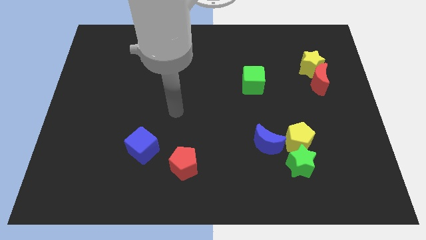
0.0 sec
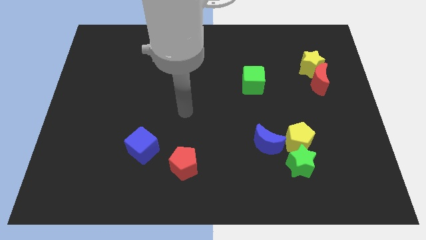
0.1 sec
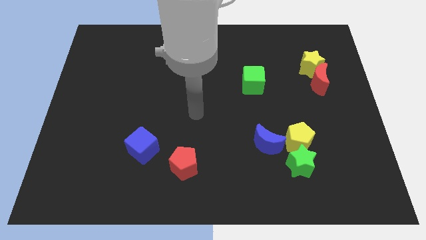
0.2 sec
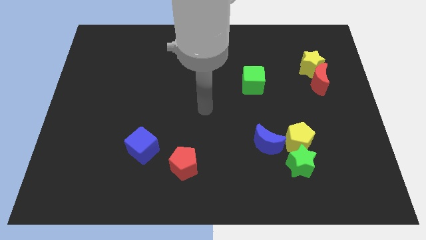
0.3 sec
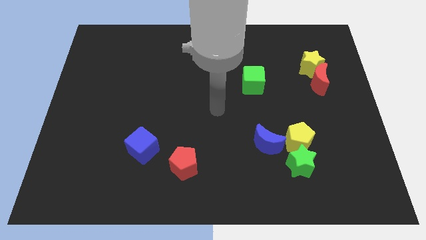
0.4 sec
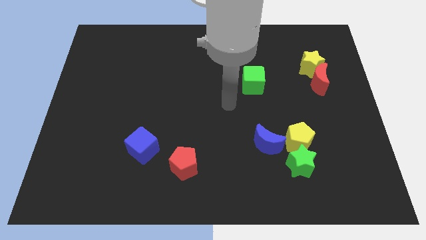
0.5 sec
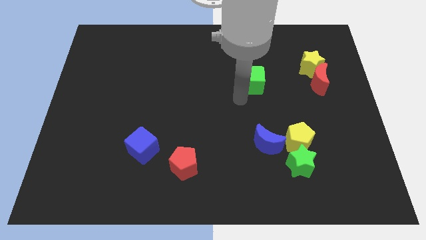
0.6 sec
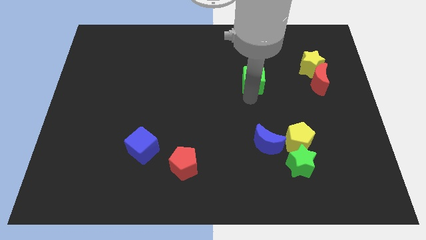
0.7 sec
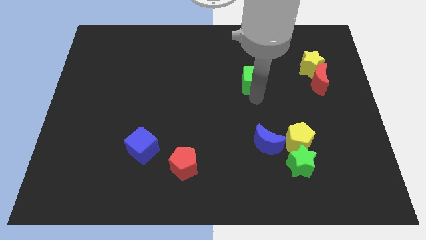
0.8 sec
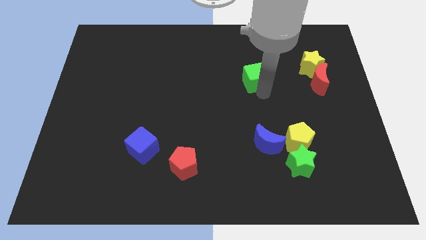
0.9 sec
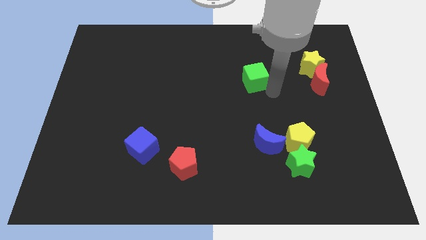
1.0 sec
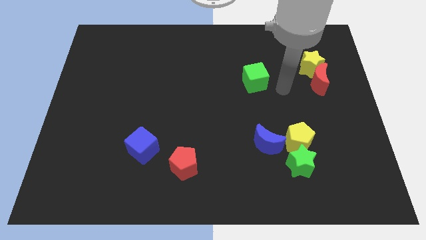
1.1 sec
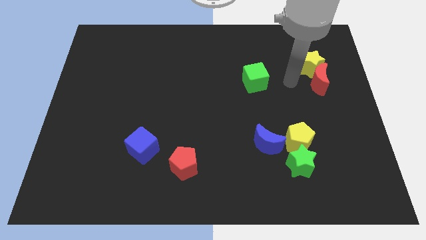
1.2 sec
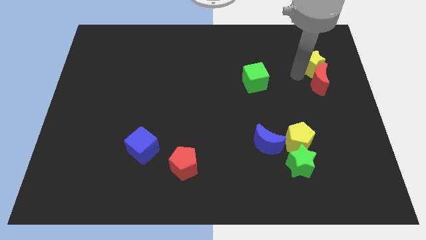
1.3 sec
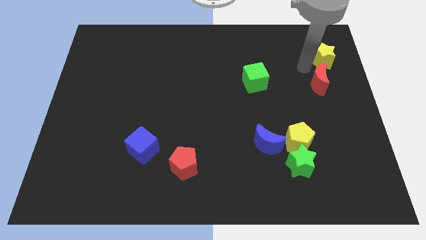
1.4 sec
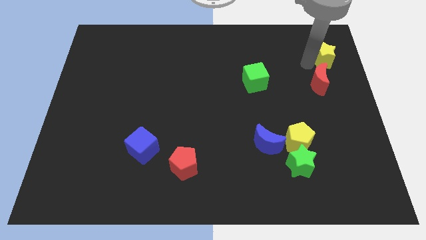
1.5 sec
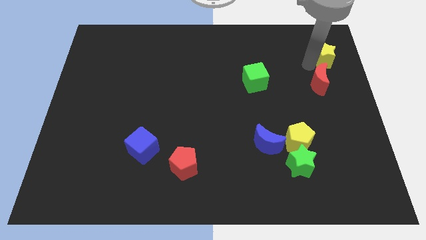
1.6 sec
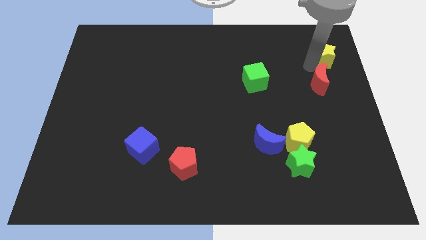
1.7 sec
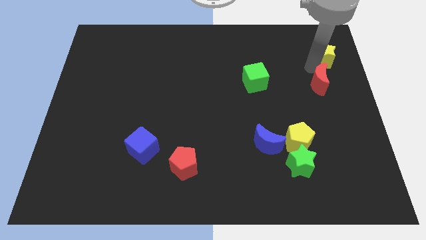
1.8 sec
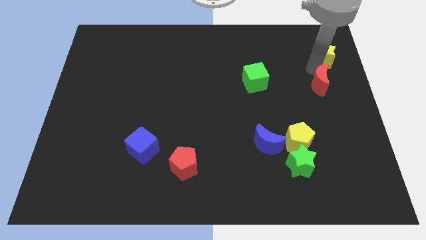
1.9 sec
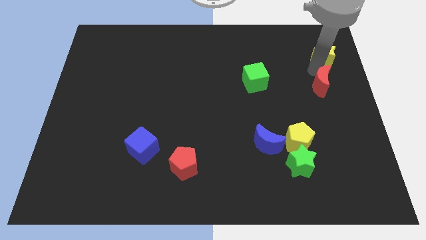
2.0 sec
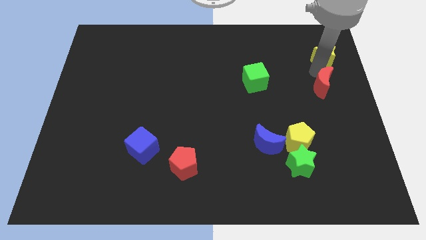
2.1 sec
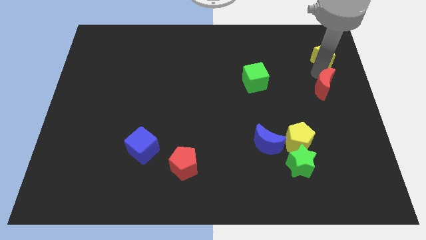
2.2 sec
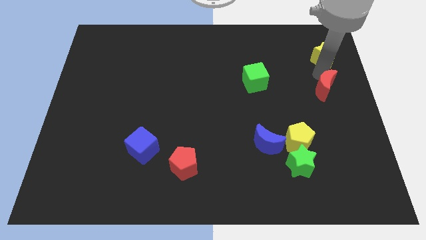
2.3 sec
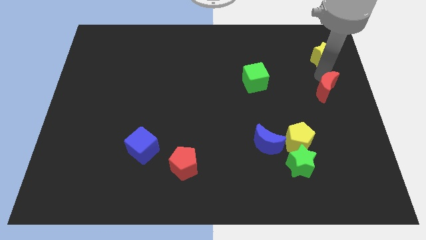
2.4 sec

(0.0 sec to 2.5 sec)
move the red moon away from the yellow star

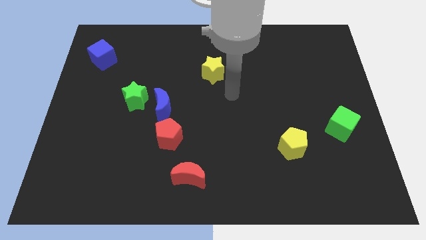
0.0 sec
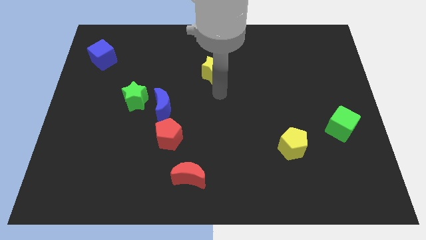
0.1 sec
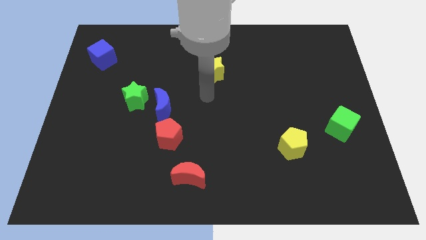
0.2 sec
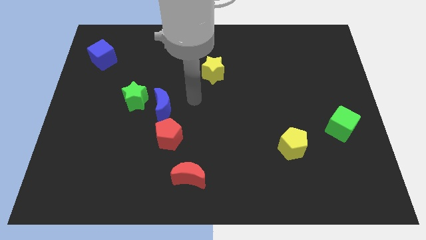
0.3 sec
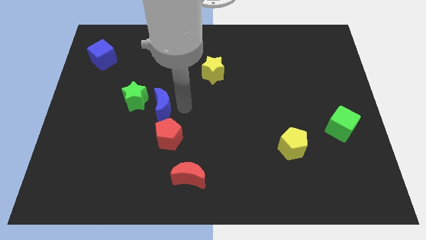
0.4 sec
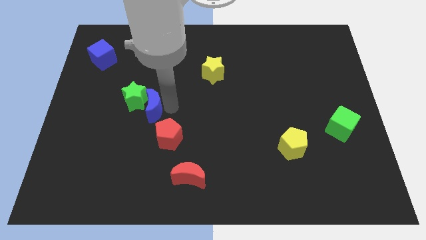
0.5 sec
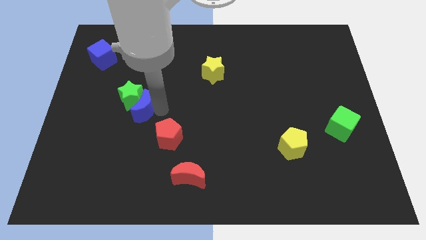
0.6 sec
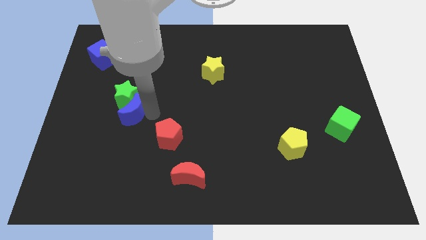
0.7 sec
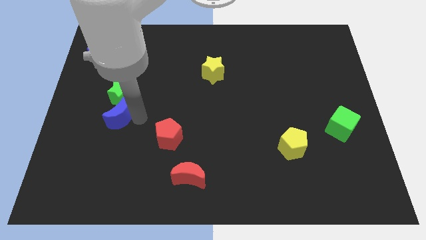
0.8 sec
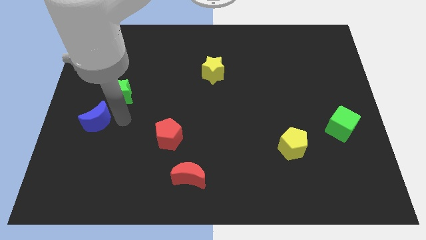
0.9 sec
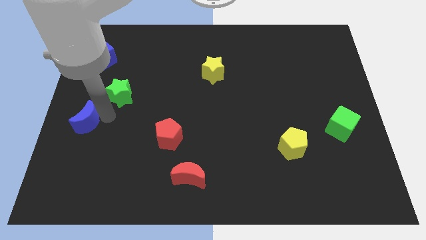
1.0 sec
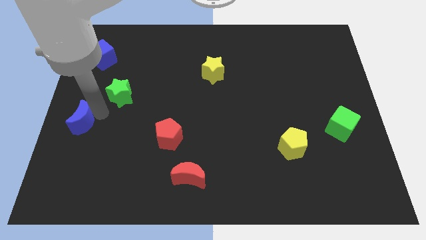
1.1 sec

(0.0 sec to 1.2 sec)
move the green star away from the blue moon

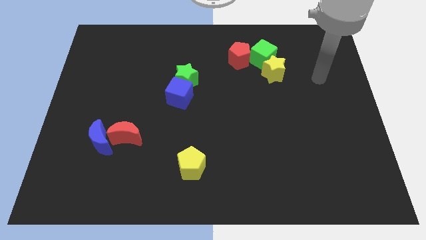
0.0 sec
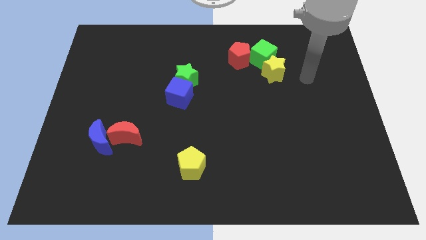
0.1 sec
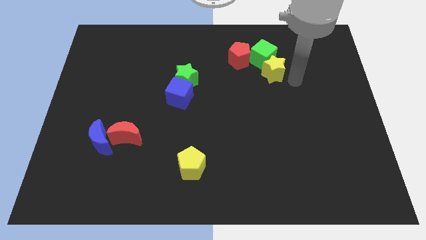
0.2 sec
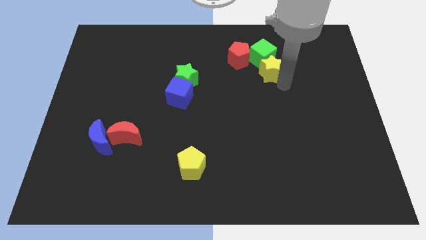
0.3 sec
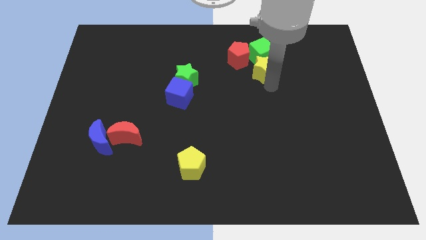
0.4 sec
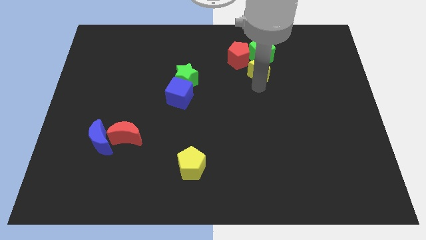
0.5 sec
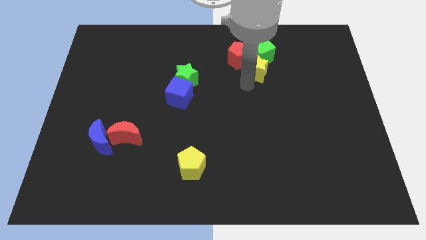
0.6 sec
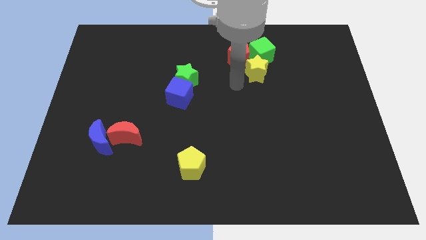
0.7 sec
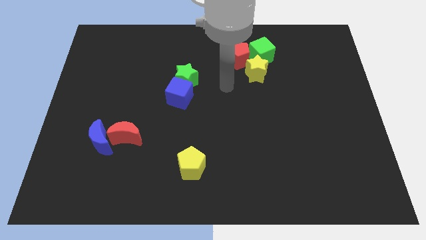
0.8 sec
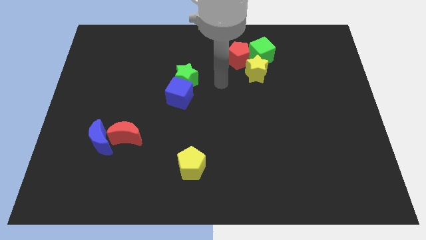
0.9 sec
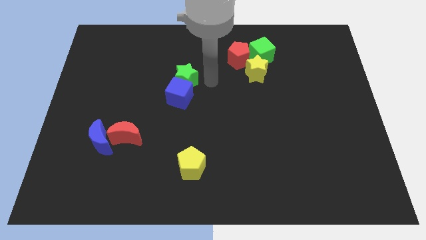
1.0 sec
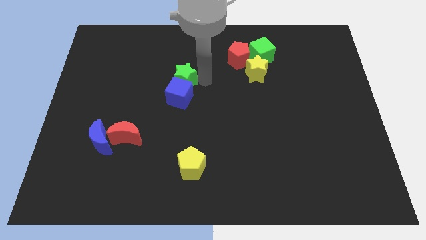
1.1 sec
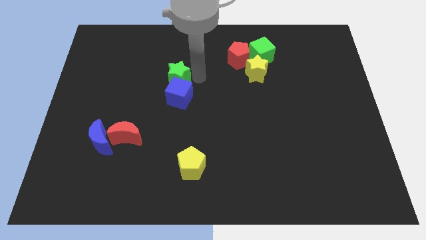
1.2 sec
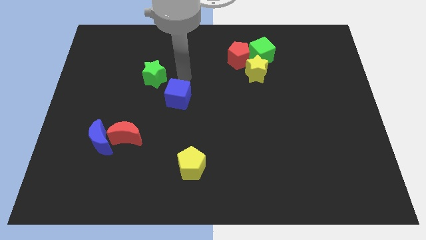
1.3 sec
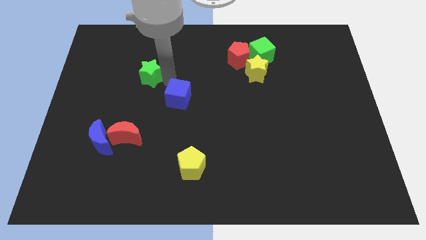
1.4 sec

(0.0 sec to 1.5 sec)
pull the blue cube apart from the green star

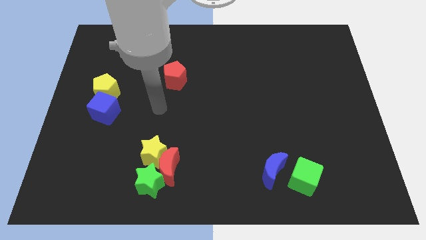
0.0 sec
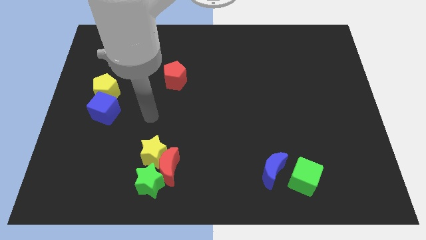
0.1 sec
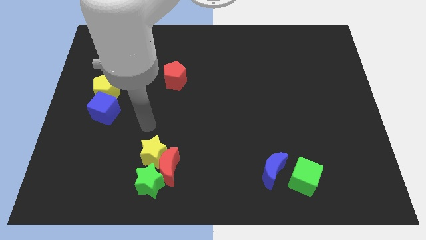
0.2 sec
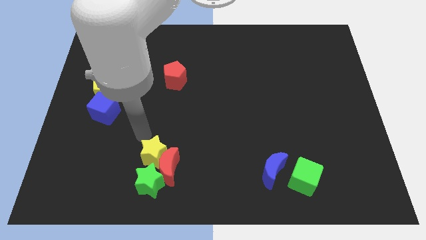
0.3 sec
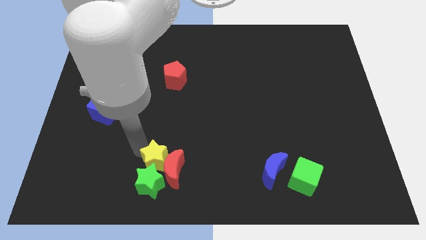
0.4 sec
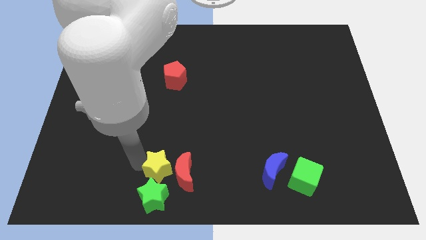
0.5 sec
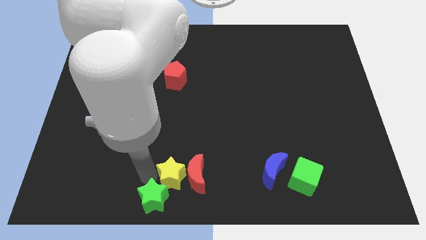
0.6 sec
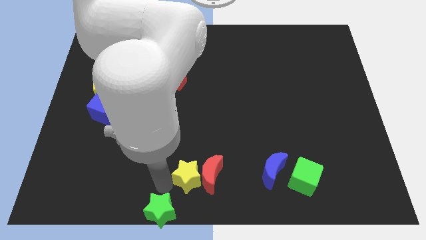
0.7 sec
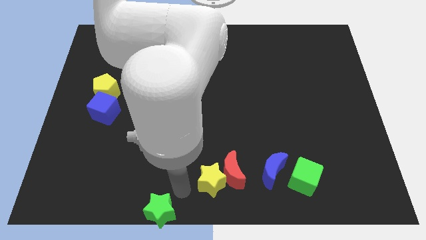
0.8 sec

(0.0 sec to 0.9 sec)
separate the red moon from the yellow star and green star

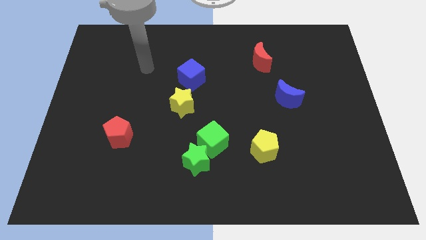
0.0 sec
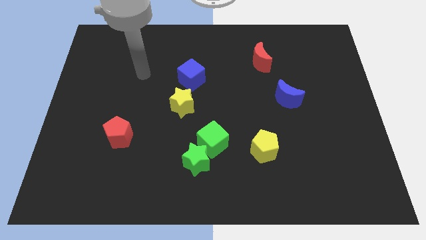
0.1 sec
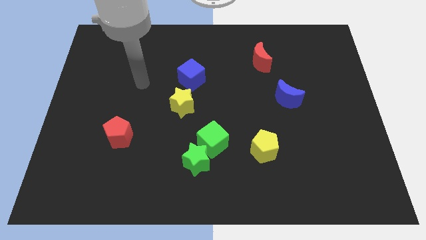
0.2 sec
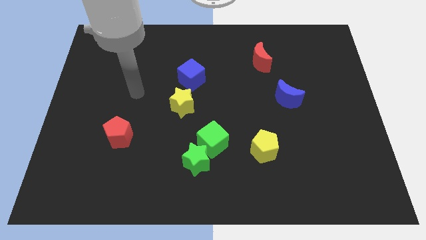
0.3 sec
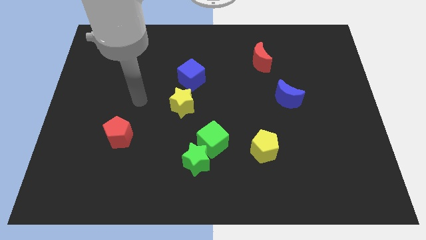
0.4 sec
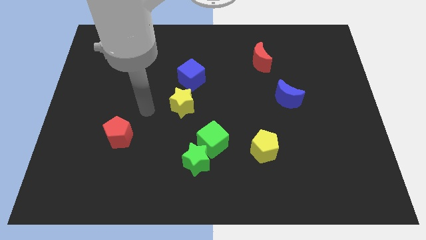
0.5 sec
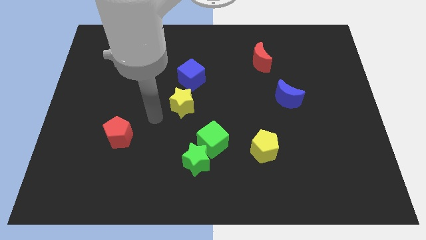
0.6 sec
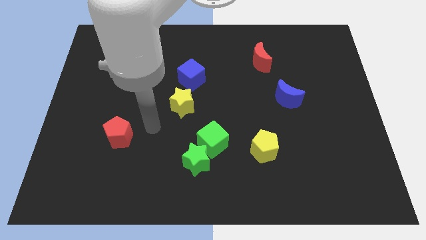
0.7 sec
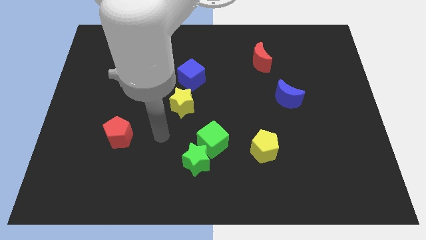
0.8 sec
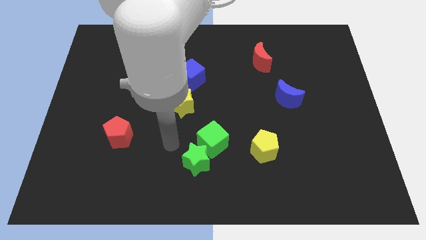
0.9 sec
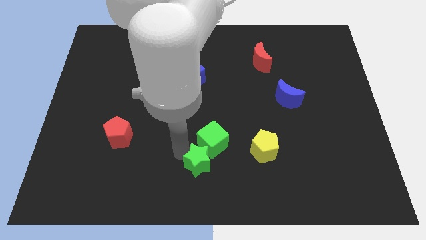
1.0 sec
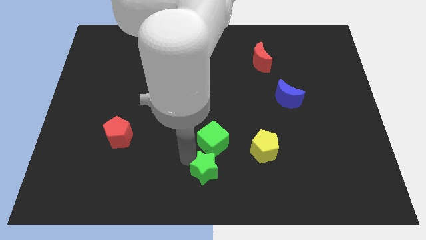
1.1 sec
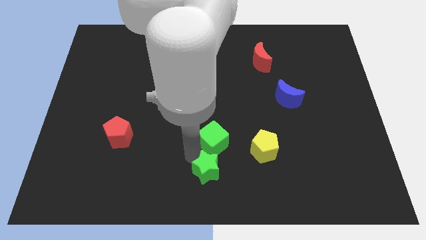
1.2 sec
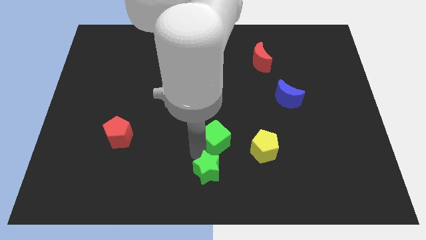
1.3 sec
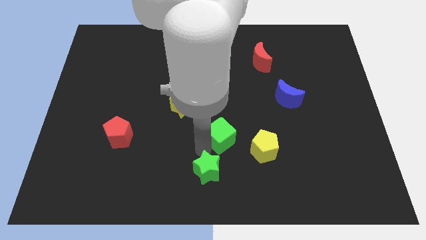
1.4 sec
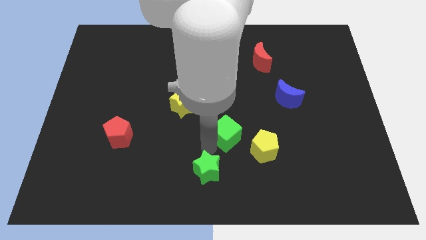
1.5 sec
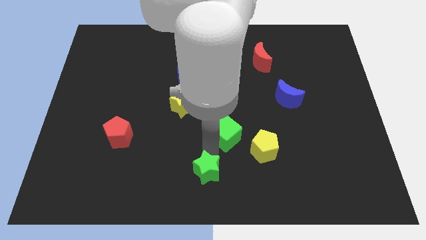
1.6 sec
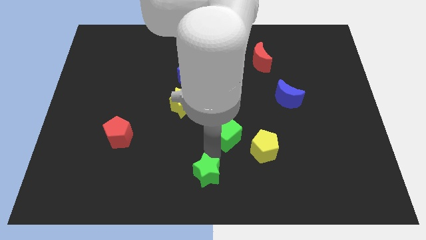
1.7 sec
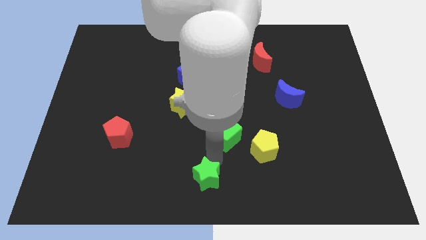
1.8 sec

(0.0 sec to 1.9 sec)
move the green cube away from the green star

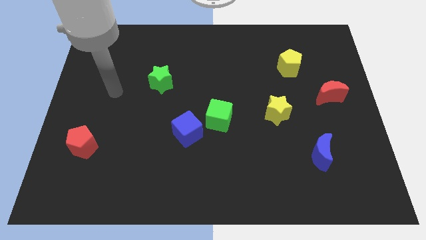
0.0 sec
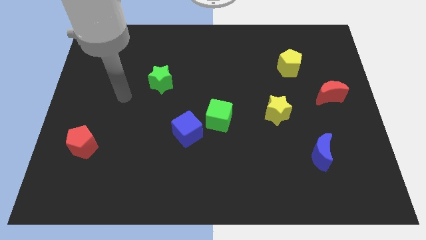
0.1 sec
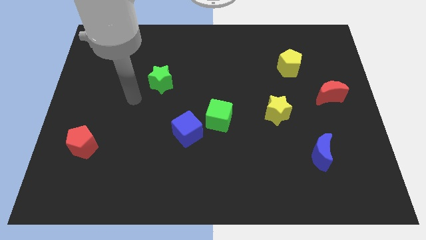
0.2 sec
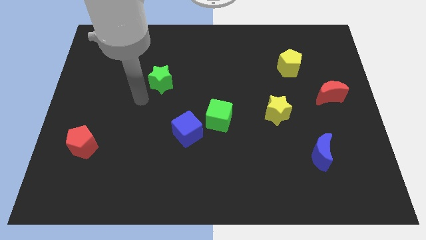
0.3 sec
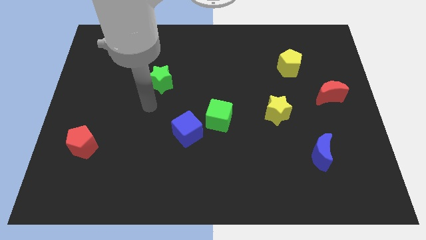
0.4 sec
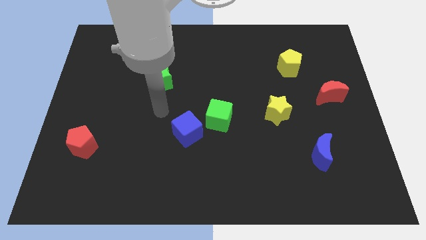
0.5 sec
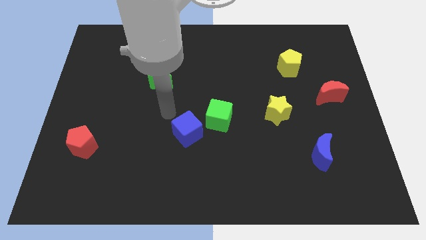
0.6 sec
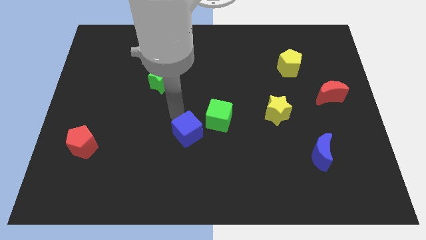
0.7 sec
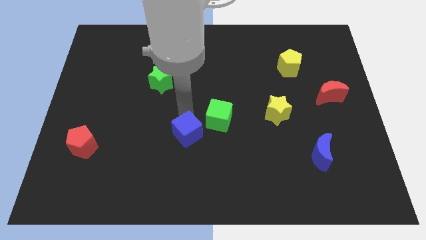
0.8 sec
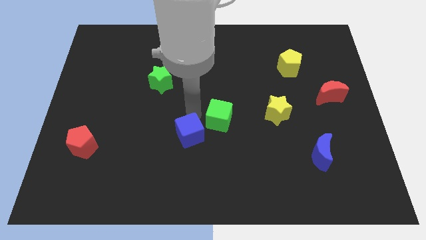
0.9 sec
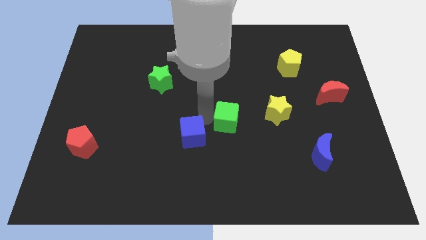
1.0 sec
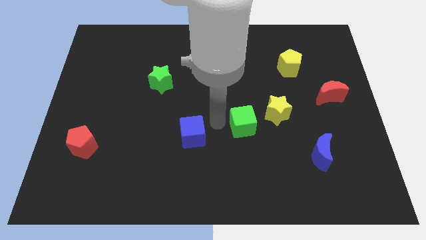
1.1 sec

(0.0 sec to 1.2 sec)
separate the blue cube from the green cube
